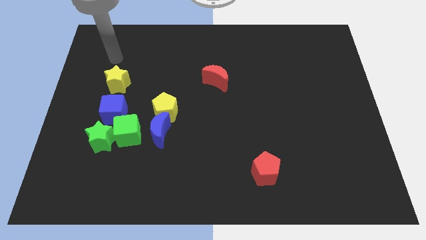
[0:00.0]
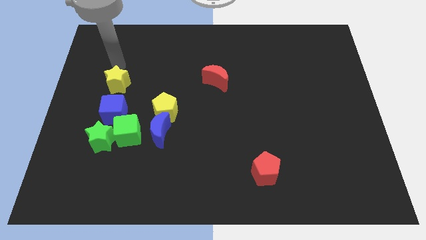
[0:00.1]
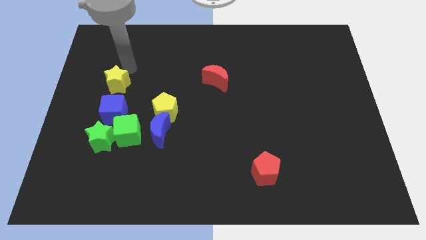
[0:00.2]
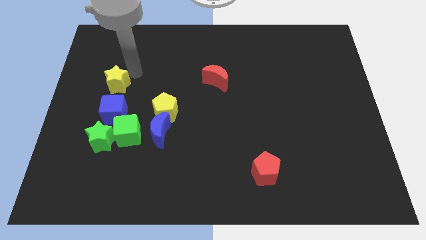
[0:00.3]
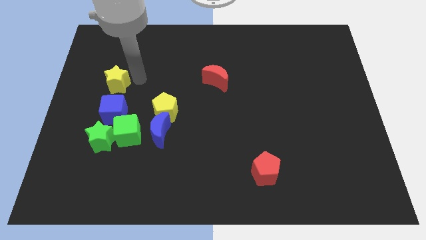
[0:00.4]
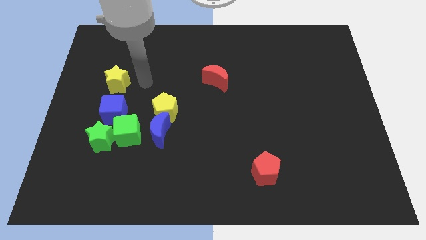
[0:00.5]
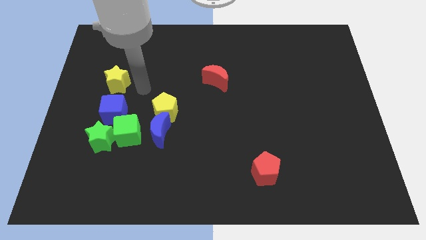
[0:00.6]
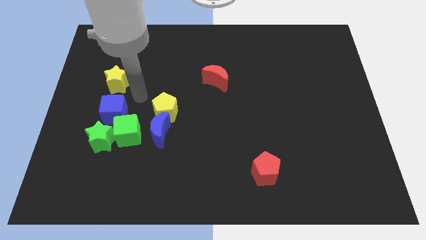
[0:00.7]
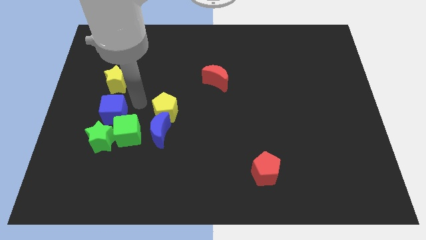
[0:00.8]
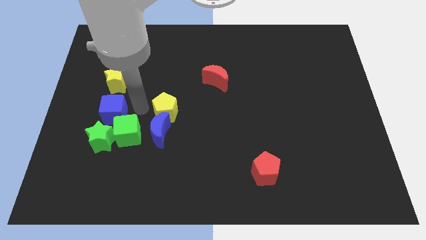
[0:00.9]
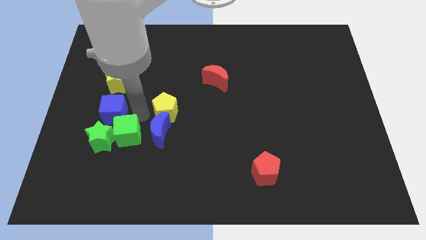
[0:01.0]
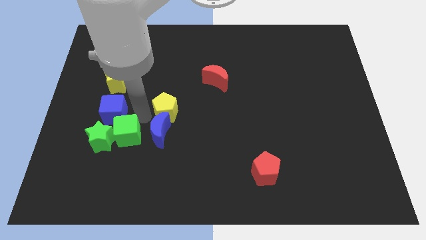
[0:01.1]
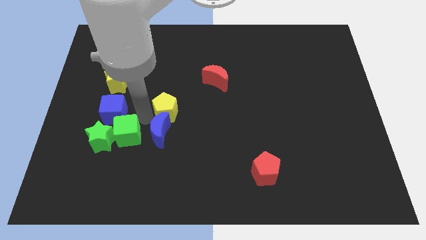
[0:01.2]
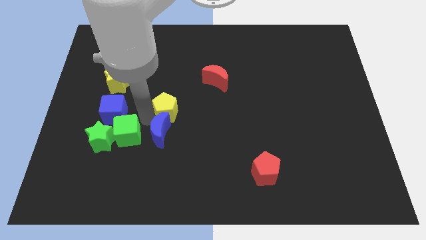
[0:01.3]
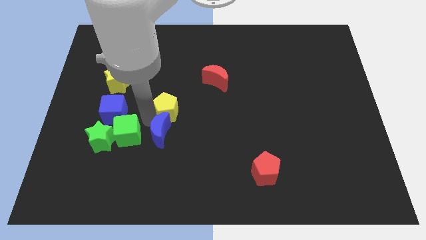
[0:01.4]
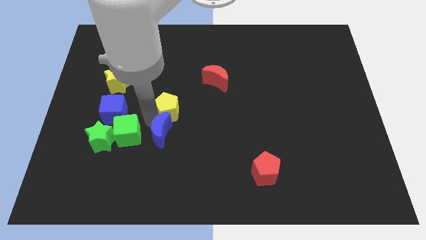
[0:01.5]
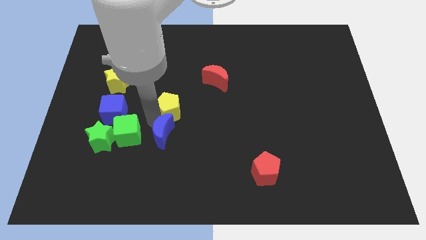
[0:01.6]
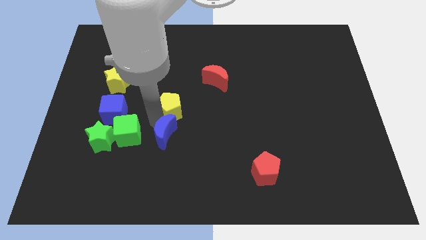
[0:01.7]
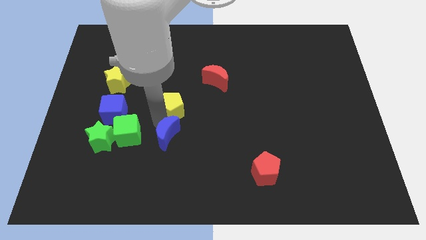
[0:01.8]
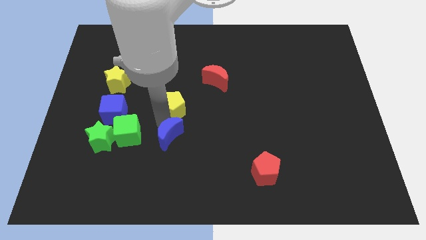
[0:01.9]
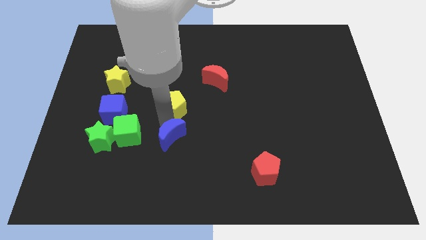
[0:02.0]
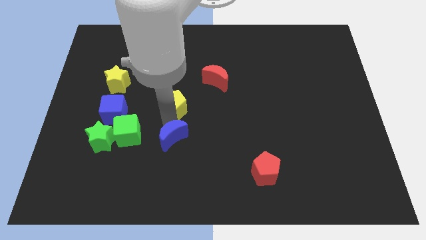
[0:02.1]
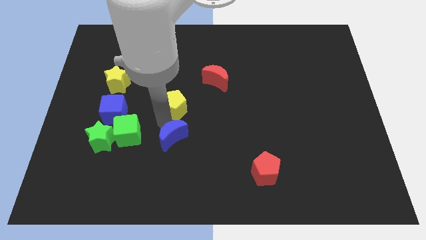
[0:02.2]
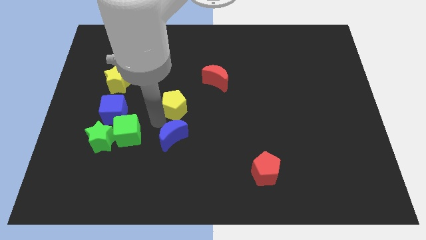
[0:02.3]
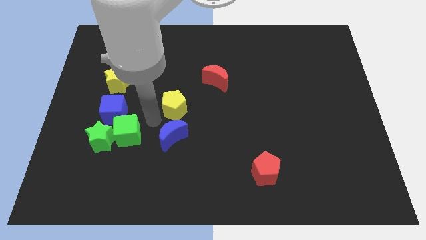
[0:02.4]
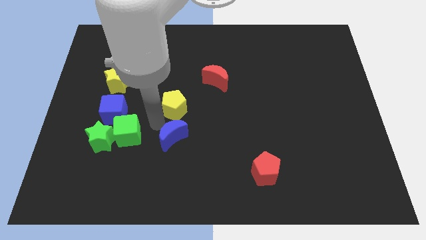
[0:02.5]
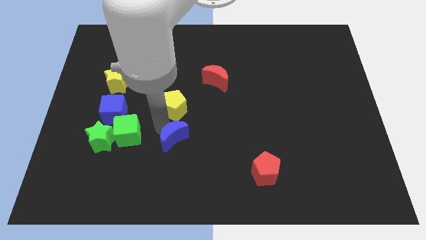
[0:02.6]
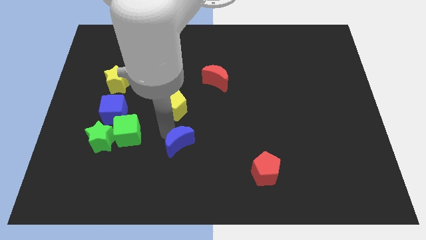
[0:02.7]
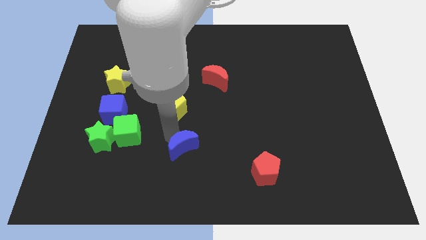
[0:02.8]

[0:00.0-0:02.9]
separate the blue moon from the yellow pentagon and green cube

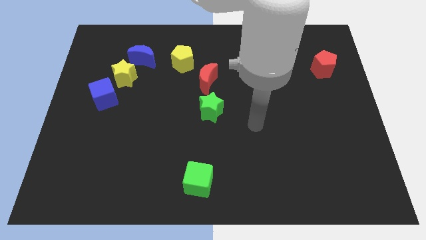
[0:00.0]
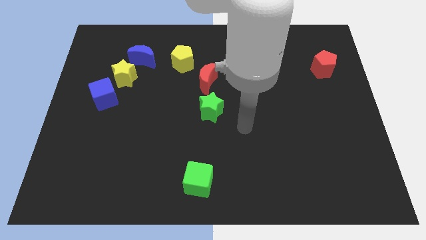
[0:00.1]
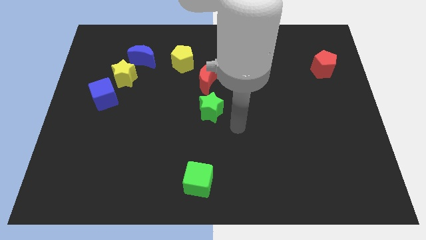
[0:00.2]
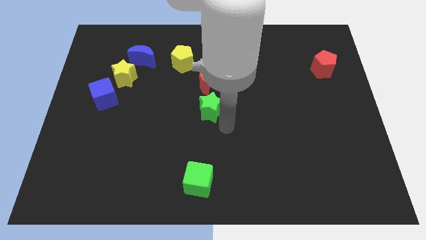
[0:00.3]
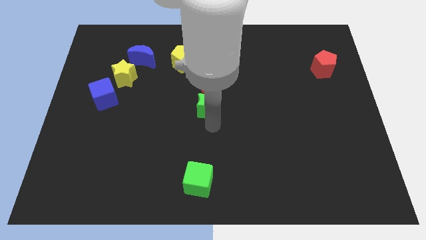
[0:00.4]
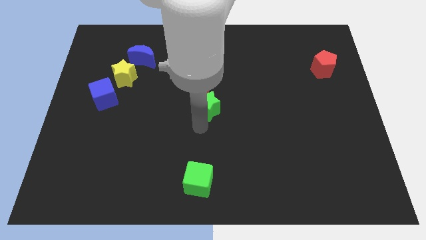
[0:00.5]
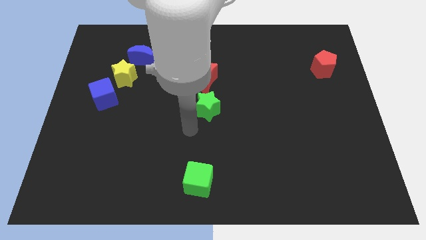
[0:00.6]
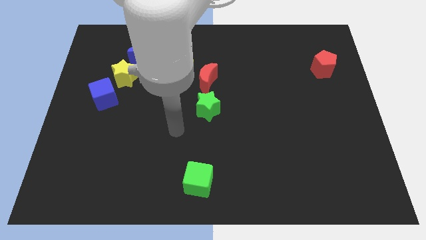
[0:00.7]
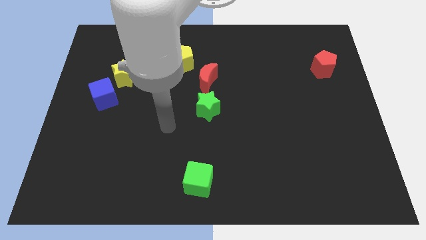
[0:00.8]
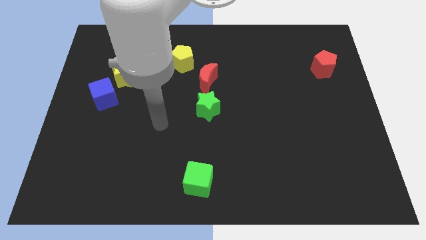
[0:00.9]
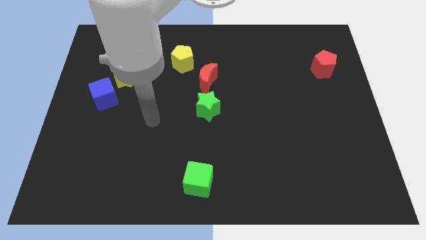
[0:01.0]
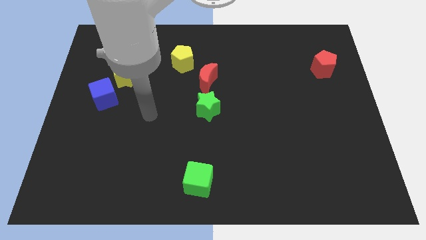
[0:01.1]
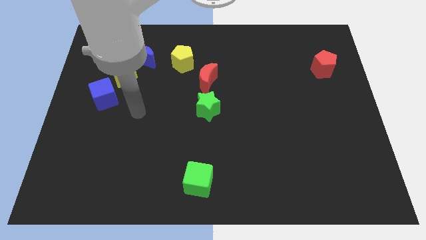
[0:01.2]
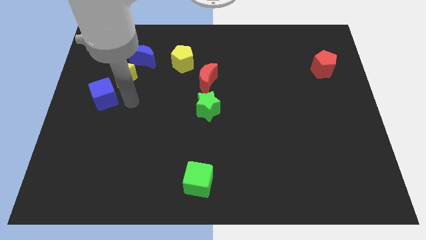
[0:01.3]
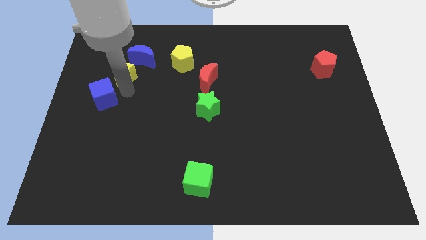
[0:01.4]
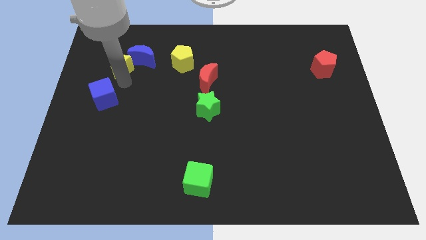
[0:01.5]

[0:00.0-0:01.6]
move the blue cube away from the yellow star

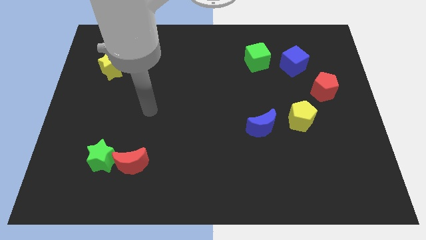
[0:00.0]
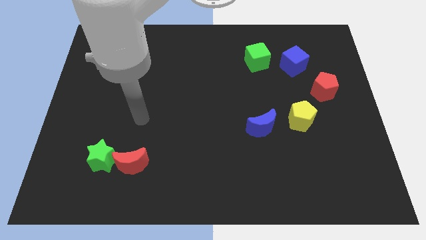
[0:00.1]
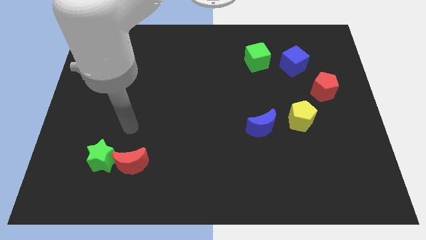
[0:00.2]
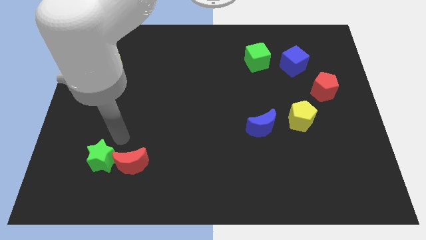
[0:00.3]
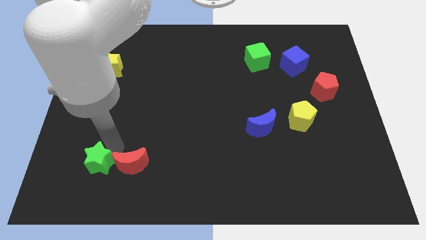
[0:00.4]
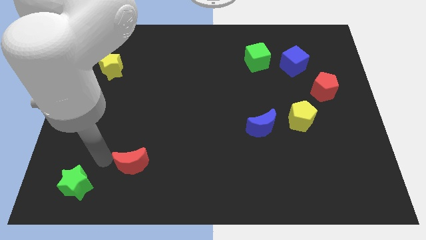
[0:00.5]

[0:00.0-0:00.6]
separate the red moon from the green star

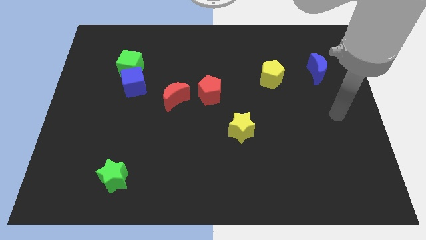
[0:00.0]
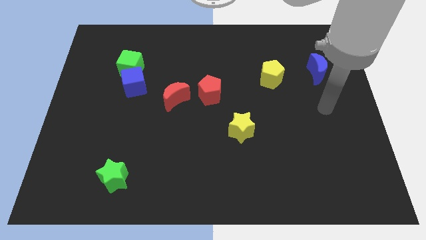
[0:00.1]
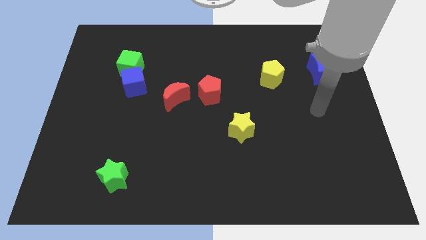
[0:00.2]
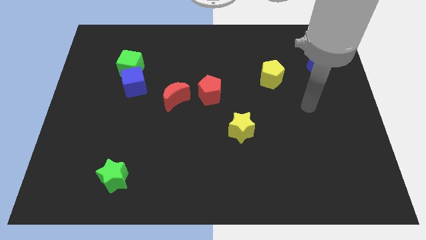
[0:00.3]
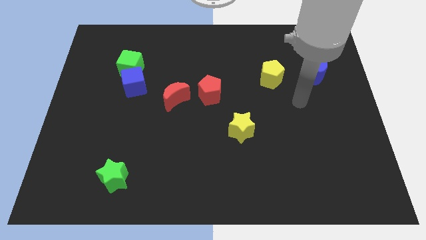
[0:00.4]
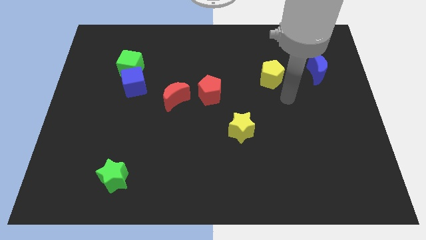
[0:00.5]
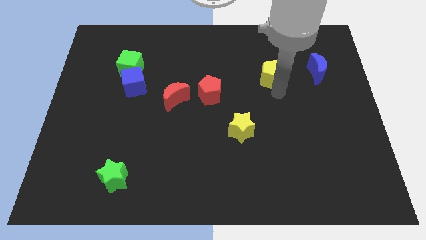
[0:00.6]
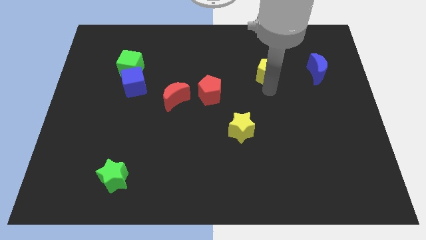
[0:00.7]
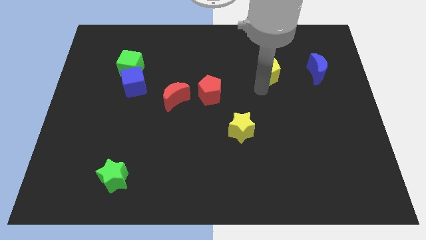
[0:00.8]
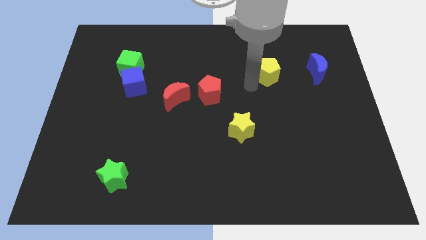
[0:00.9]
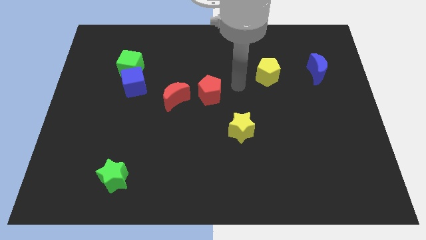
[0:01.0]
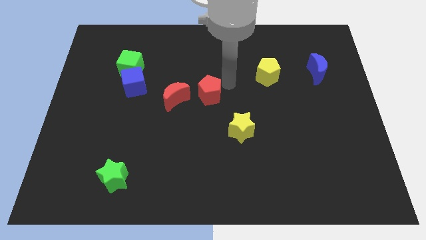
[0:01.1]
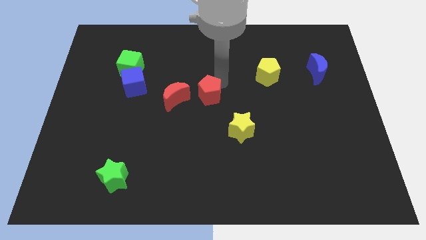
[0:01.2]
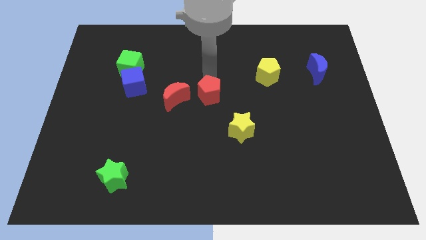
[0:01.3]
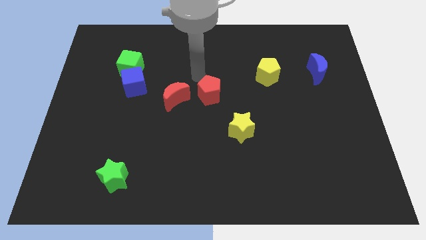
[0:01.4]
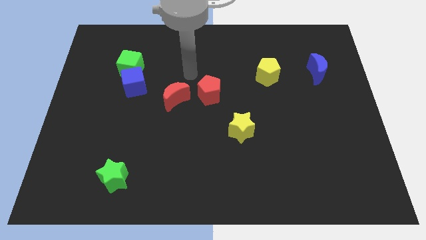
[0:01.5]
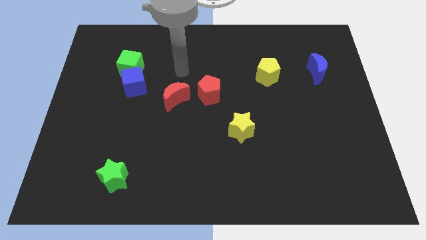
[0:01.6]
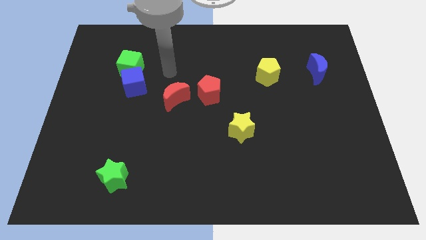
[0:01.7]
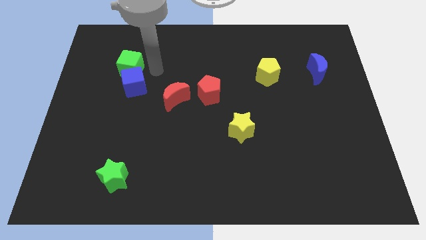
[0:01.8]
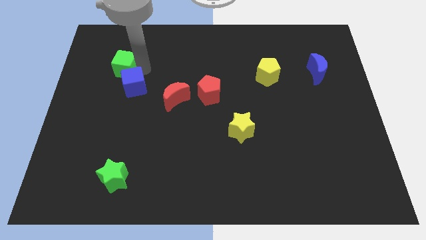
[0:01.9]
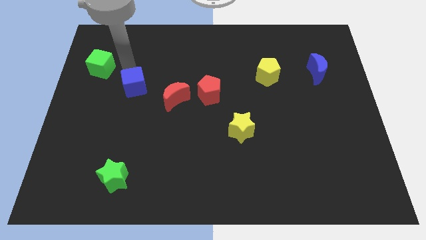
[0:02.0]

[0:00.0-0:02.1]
separate the blue cube from the green cube

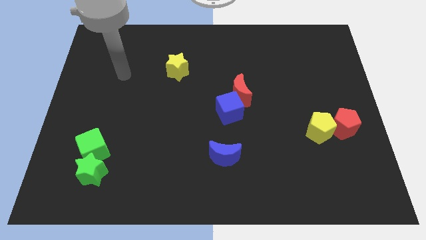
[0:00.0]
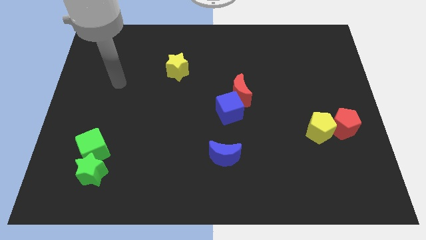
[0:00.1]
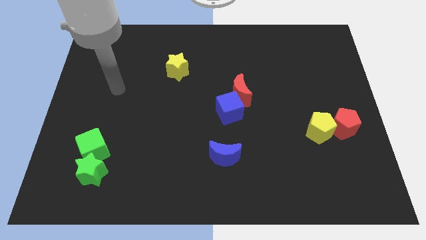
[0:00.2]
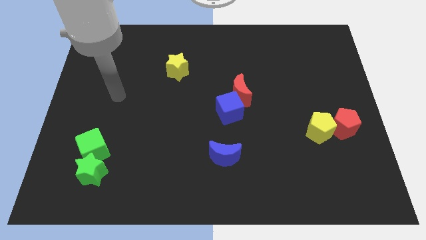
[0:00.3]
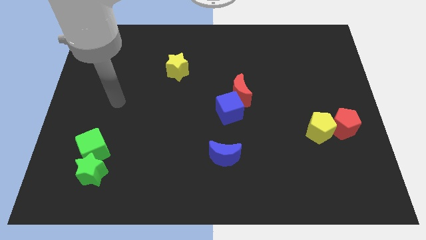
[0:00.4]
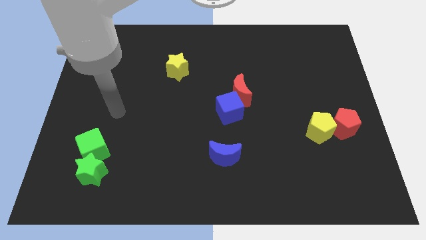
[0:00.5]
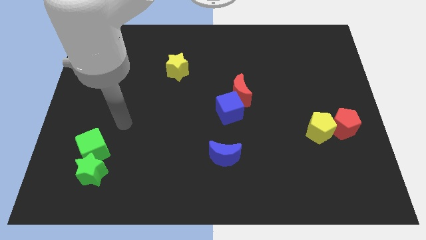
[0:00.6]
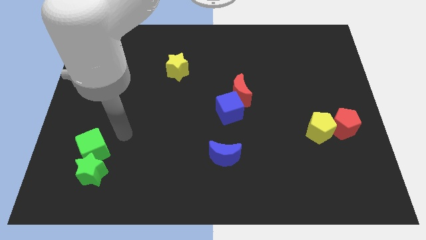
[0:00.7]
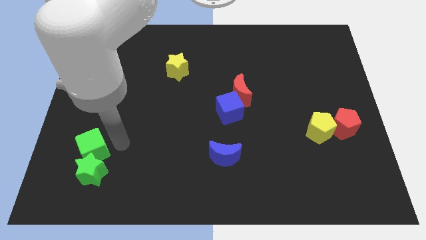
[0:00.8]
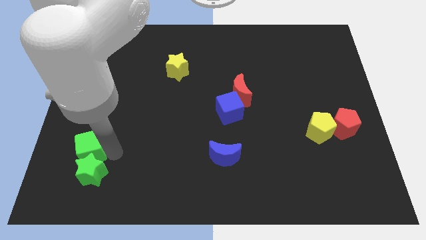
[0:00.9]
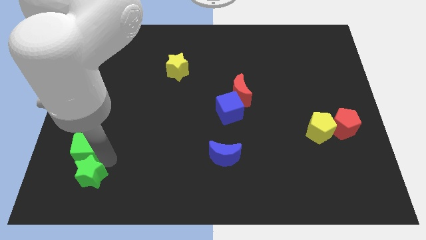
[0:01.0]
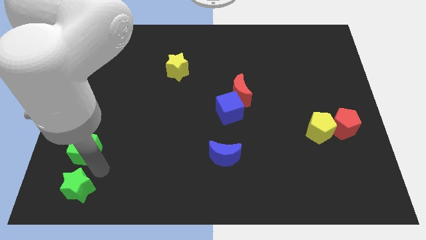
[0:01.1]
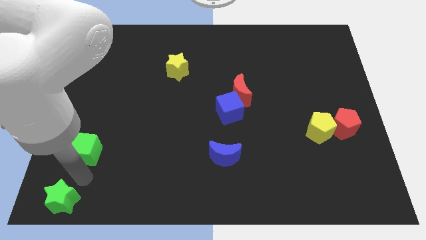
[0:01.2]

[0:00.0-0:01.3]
pull the green cube apart from the green star

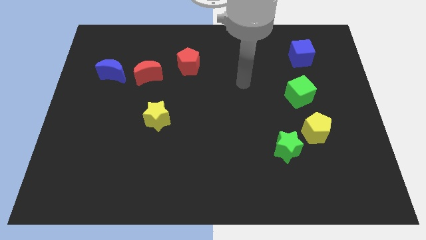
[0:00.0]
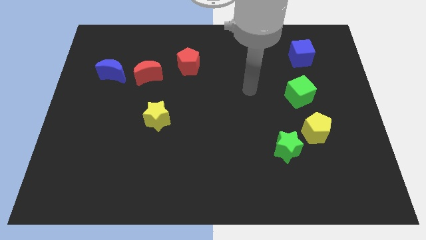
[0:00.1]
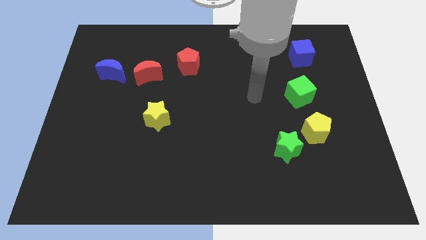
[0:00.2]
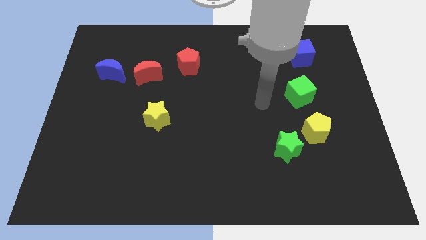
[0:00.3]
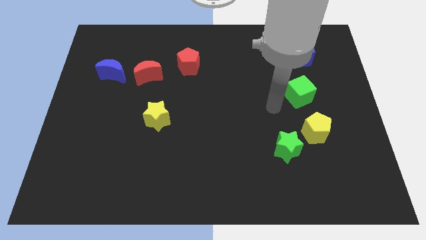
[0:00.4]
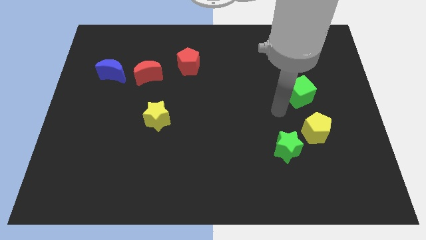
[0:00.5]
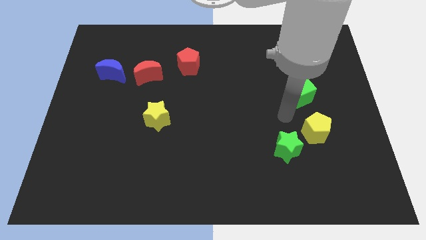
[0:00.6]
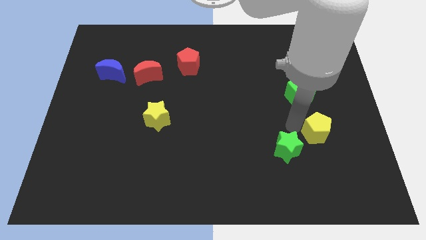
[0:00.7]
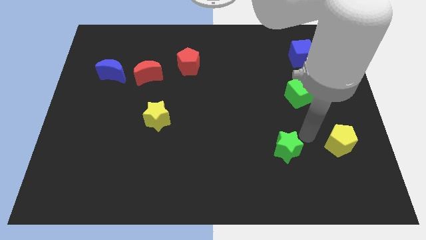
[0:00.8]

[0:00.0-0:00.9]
pull the green star apart from the yellow pentagon
